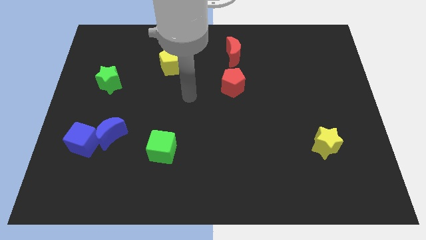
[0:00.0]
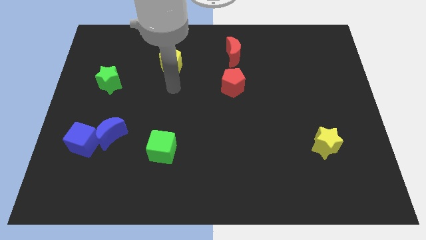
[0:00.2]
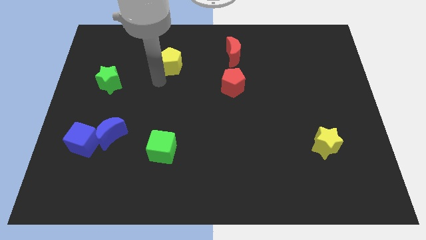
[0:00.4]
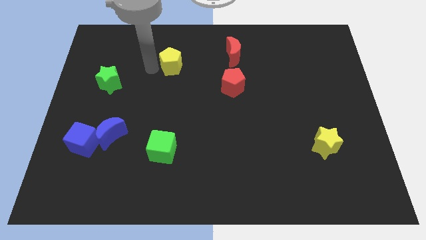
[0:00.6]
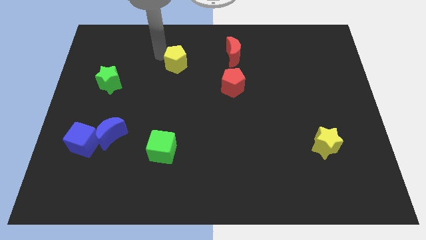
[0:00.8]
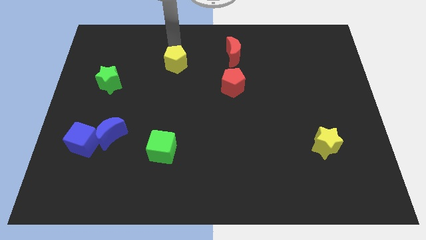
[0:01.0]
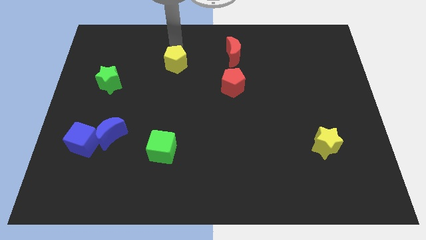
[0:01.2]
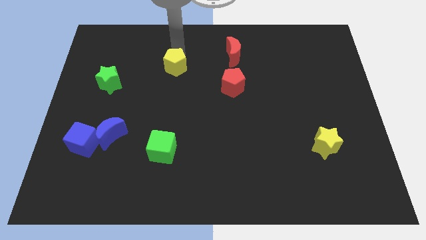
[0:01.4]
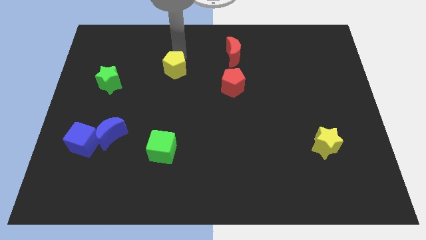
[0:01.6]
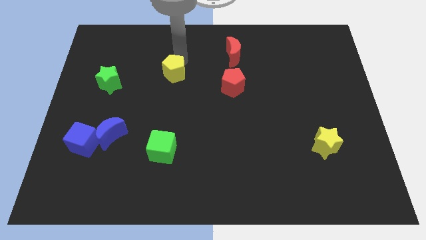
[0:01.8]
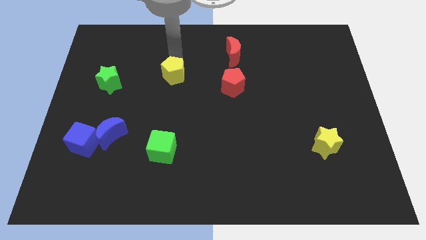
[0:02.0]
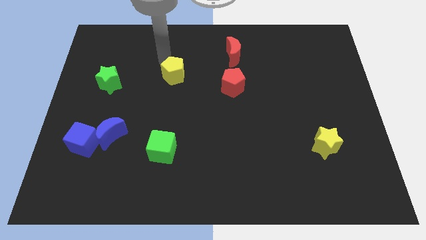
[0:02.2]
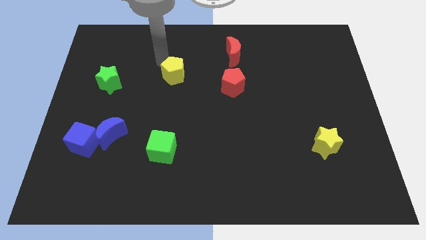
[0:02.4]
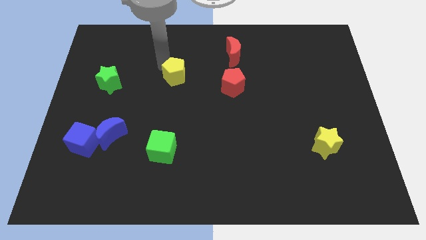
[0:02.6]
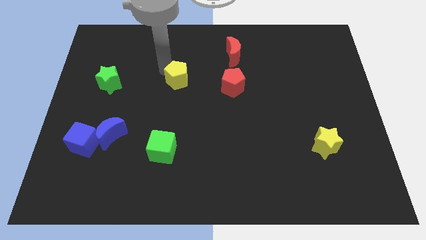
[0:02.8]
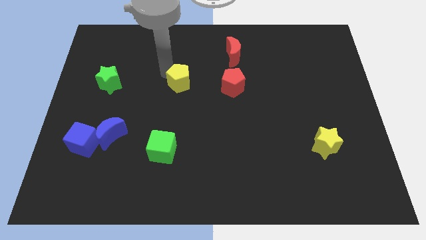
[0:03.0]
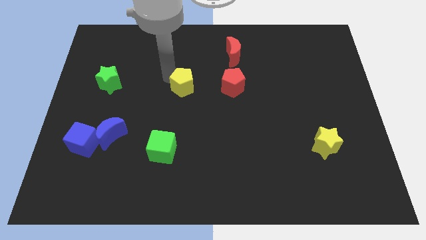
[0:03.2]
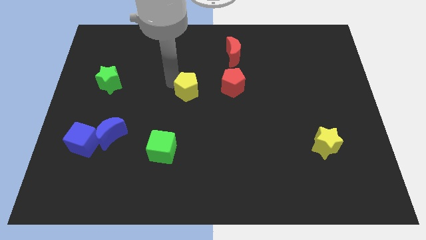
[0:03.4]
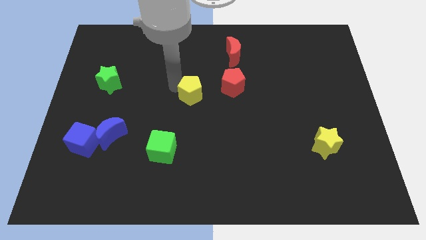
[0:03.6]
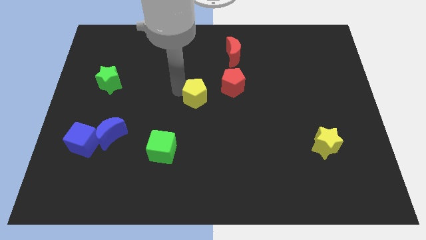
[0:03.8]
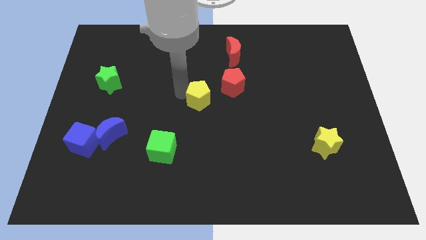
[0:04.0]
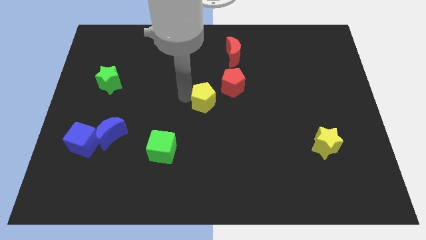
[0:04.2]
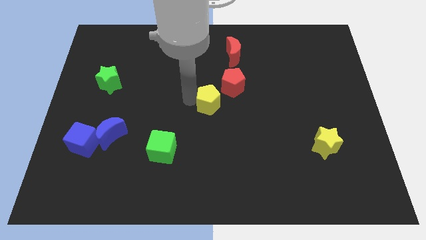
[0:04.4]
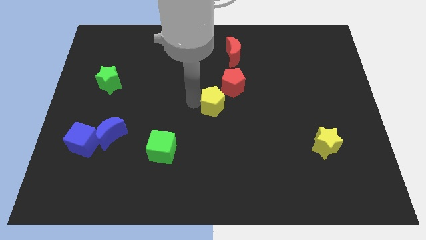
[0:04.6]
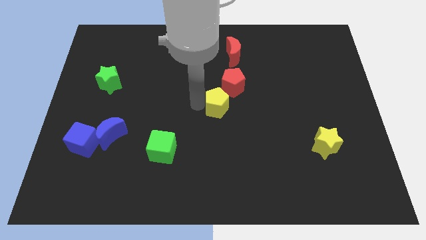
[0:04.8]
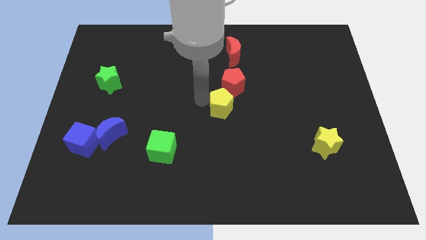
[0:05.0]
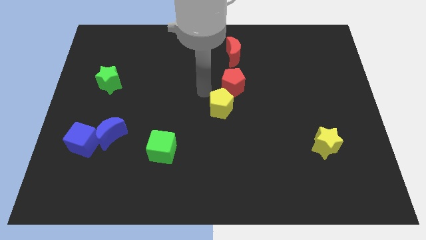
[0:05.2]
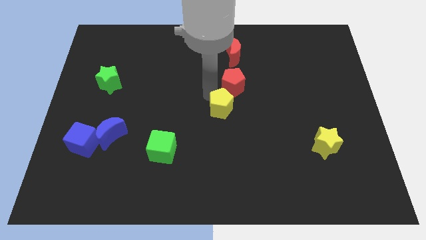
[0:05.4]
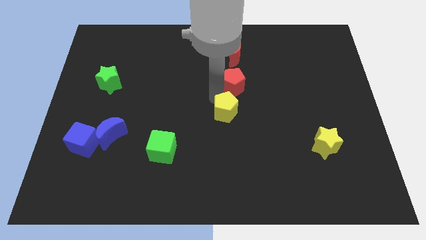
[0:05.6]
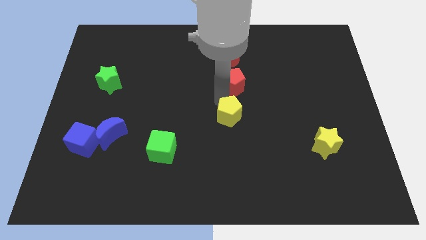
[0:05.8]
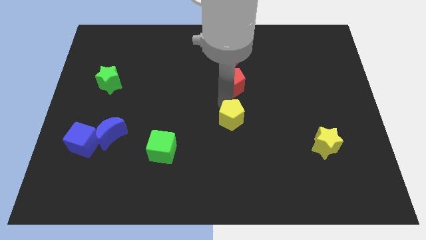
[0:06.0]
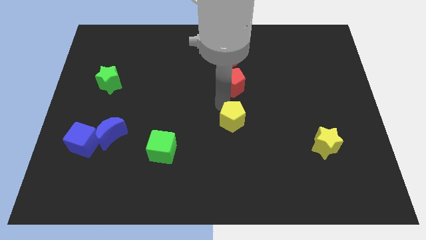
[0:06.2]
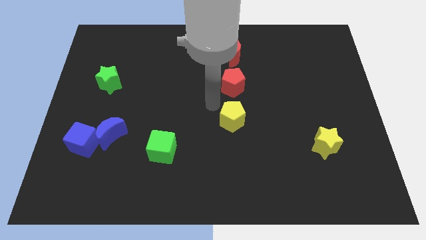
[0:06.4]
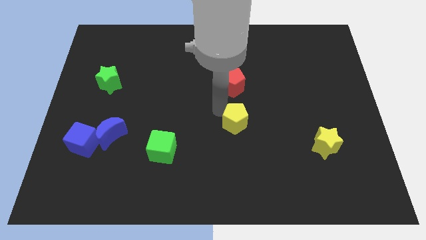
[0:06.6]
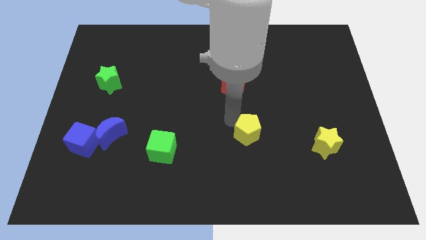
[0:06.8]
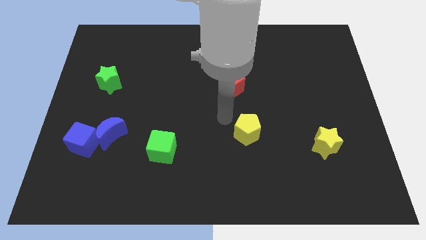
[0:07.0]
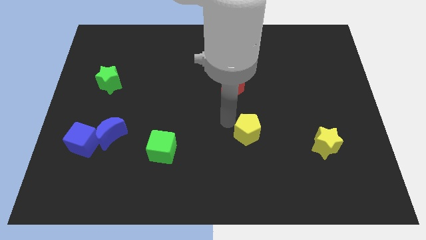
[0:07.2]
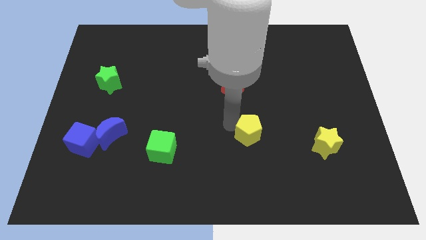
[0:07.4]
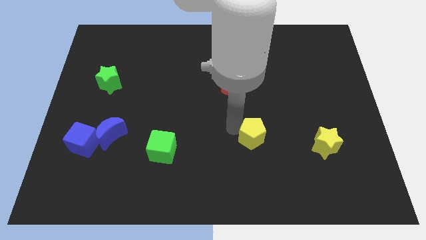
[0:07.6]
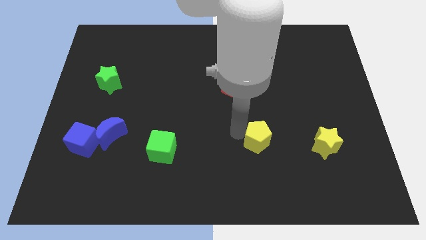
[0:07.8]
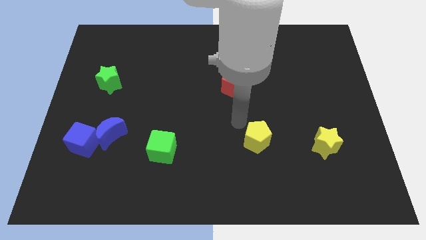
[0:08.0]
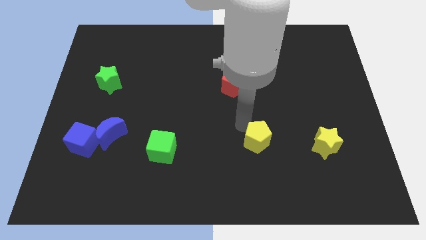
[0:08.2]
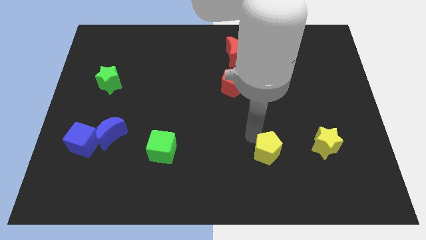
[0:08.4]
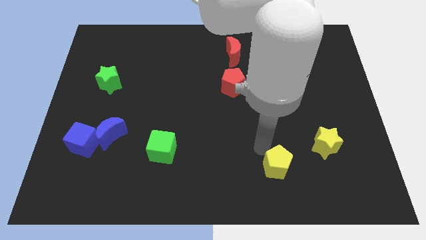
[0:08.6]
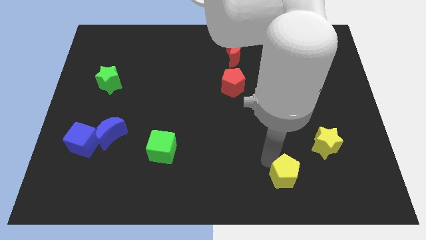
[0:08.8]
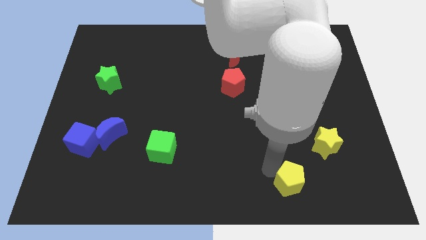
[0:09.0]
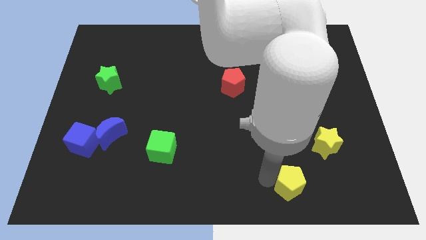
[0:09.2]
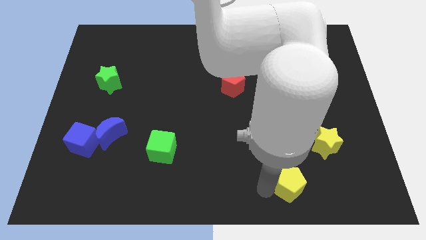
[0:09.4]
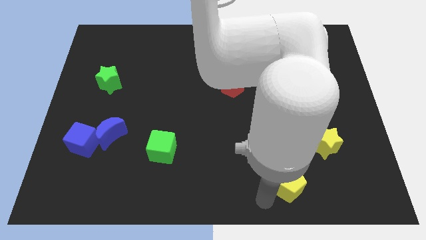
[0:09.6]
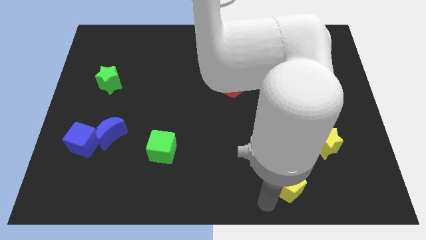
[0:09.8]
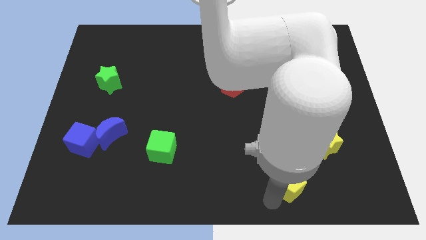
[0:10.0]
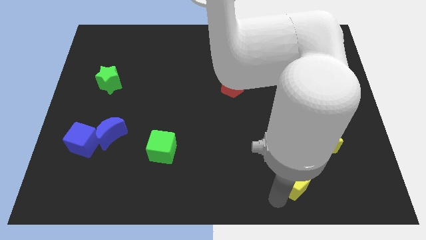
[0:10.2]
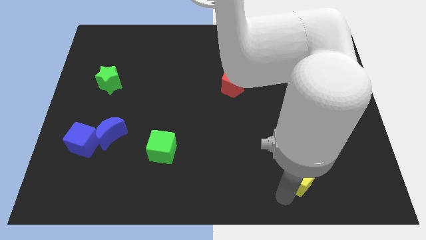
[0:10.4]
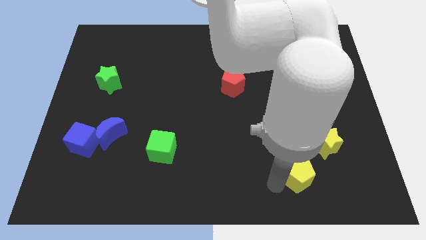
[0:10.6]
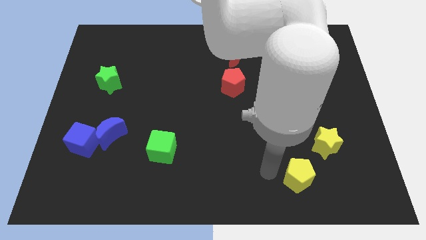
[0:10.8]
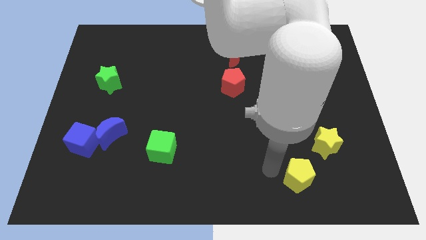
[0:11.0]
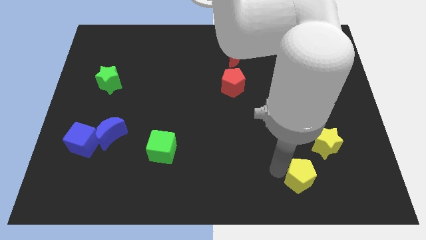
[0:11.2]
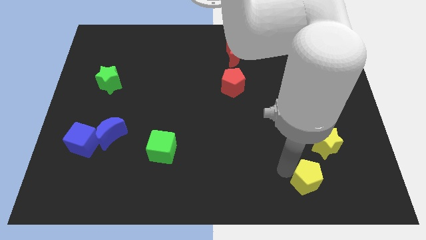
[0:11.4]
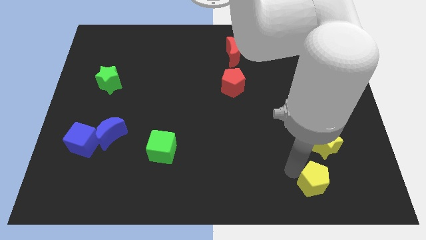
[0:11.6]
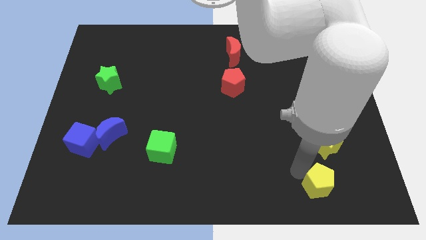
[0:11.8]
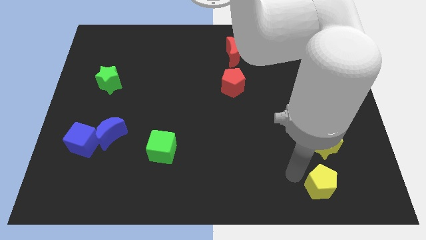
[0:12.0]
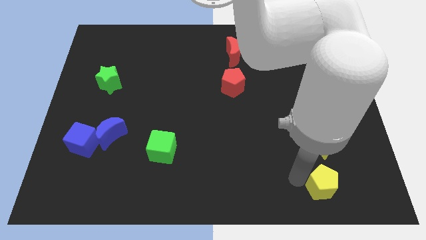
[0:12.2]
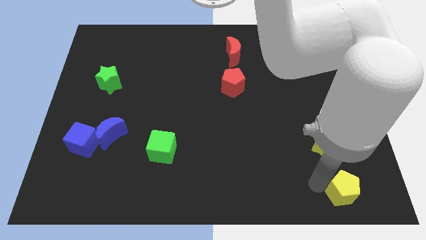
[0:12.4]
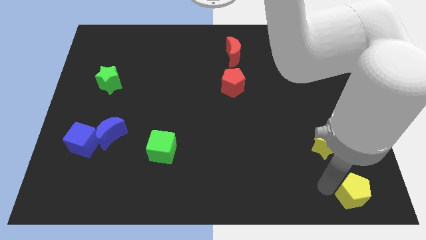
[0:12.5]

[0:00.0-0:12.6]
push the yellow pentagon to the bottom right corner
